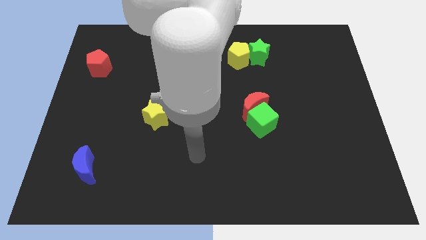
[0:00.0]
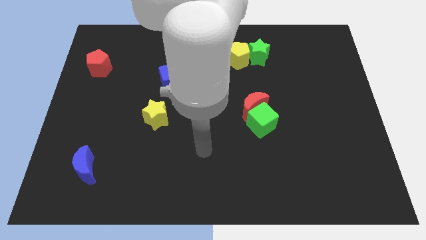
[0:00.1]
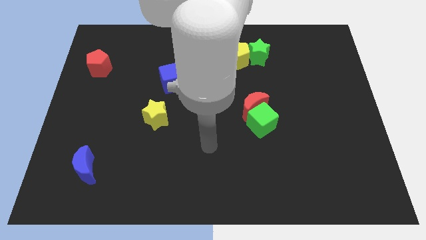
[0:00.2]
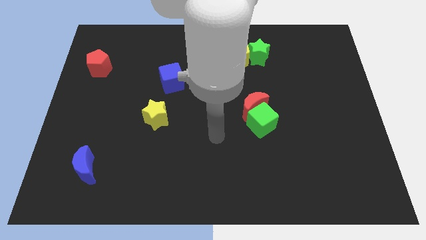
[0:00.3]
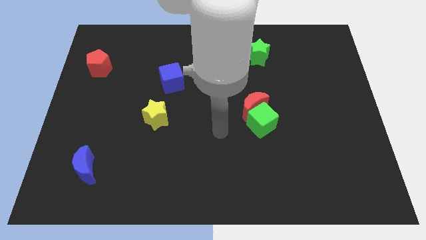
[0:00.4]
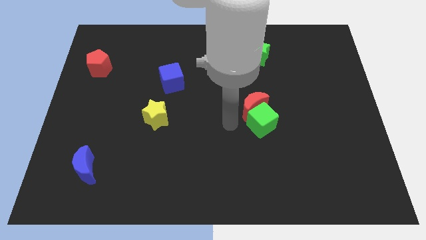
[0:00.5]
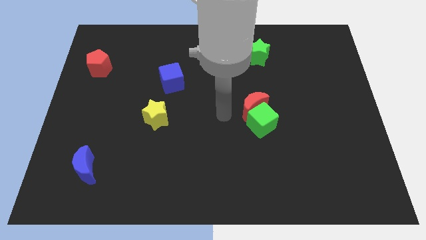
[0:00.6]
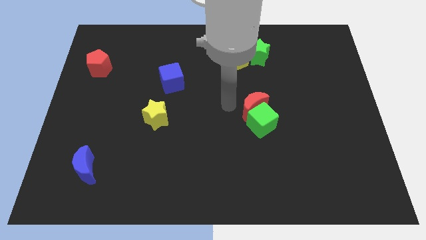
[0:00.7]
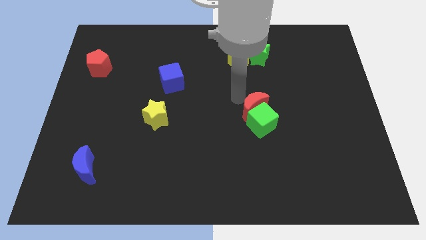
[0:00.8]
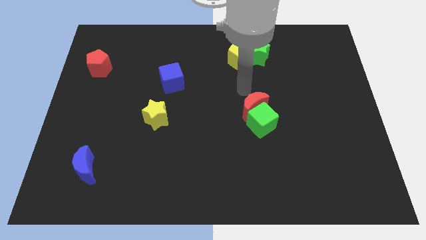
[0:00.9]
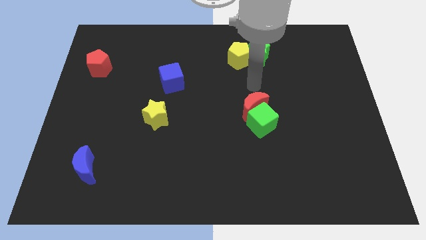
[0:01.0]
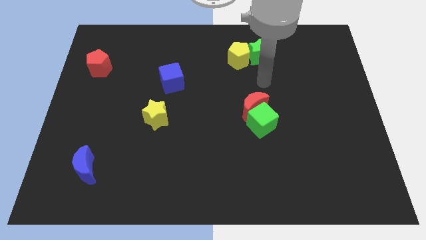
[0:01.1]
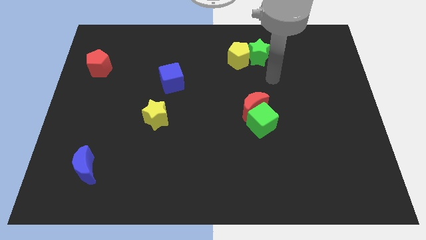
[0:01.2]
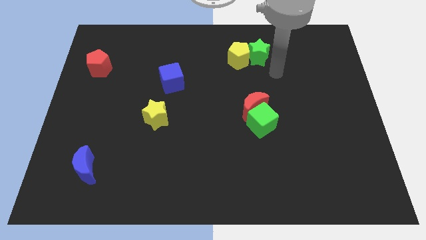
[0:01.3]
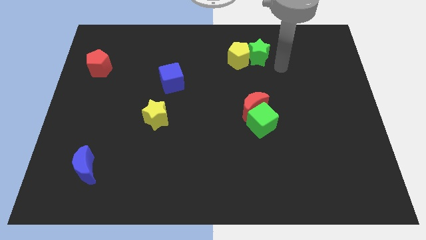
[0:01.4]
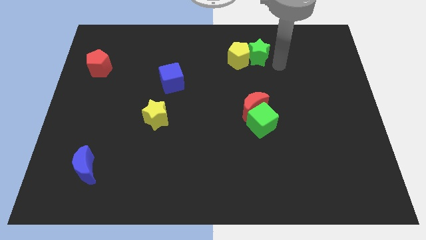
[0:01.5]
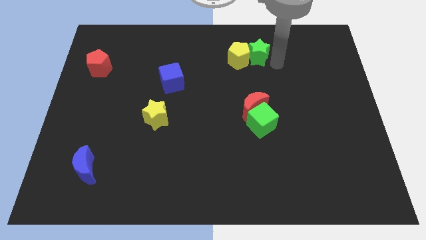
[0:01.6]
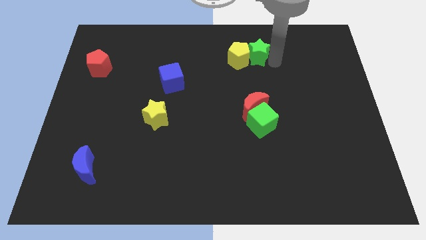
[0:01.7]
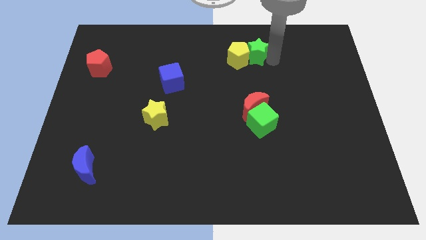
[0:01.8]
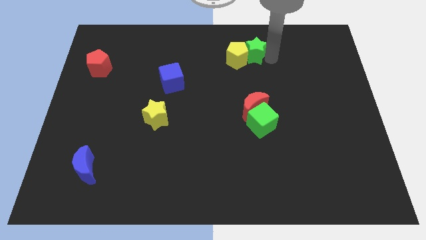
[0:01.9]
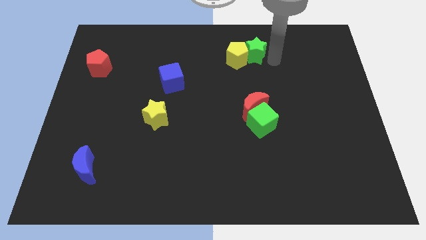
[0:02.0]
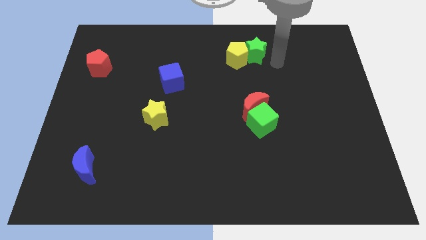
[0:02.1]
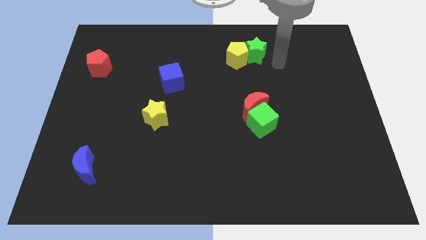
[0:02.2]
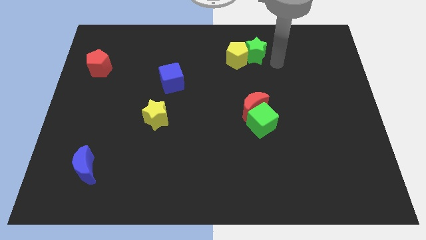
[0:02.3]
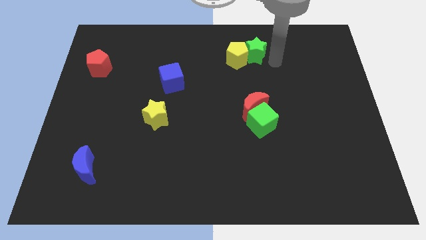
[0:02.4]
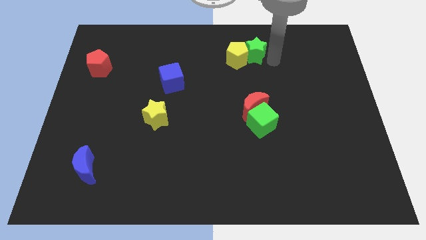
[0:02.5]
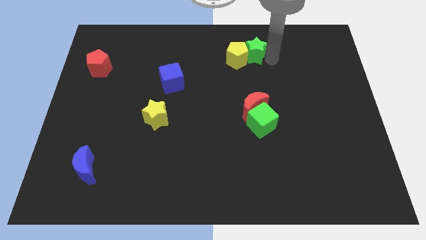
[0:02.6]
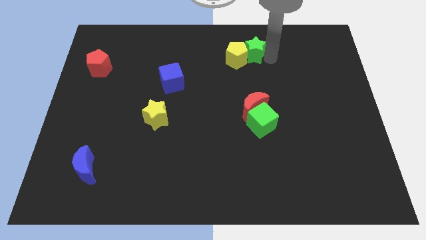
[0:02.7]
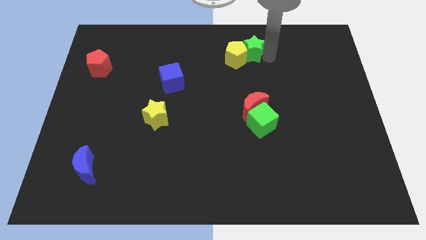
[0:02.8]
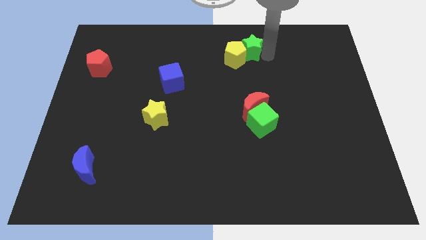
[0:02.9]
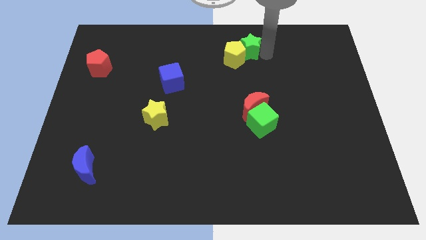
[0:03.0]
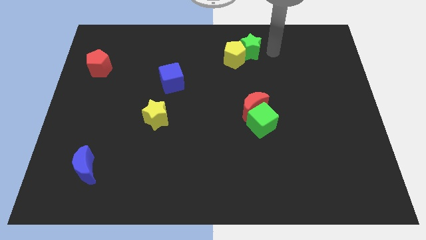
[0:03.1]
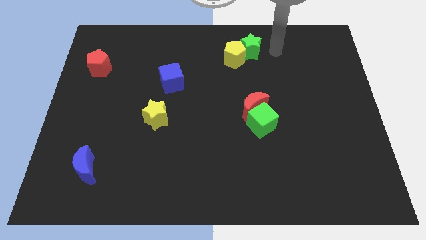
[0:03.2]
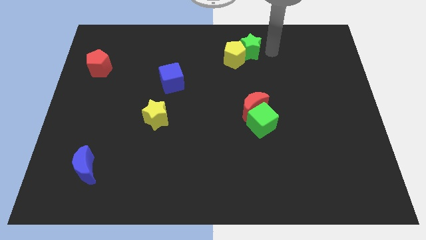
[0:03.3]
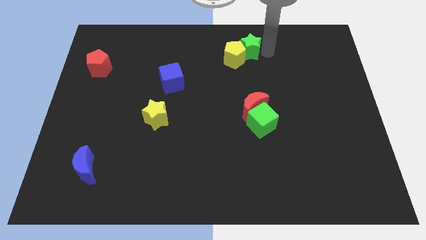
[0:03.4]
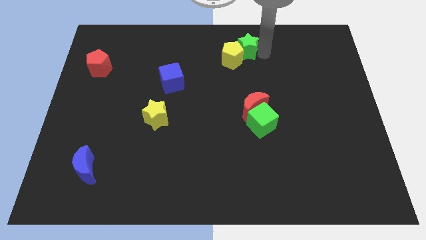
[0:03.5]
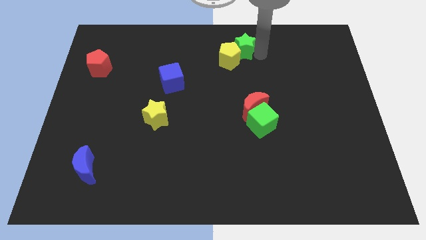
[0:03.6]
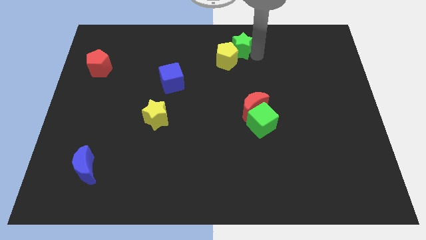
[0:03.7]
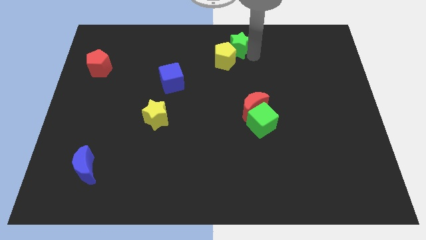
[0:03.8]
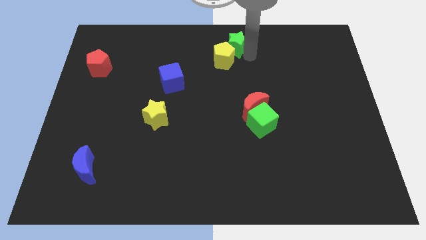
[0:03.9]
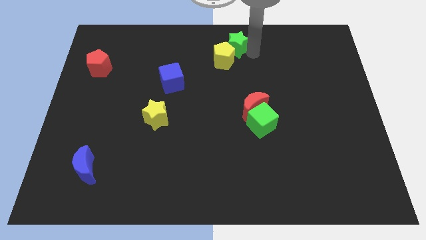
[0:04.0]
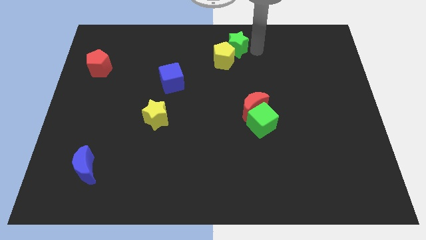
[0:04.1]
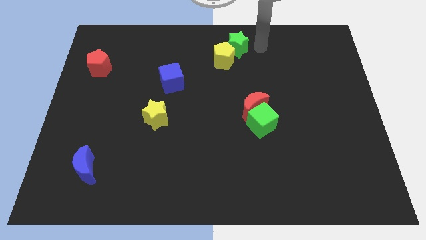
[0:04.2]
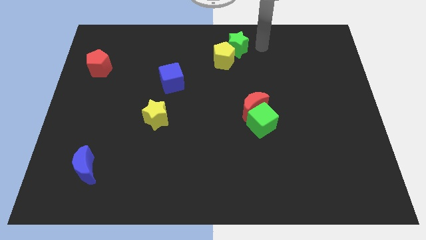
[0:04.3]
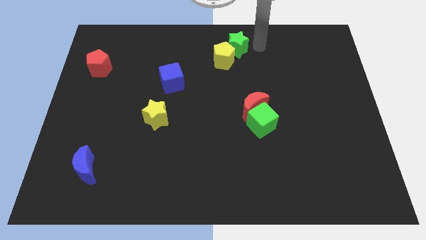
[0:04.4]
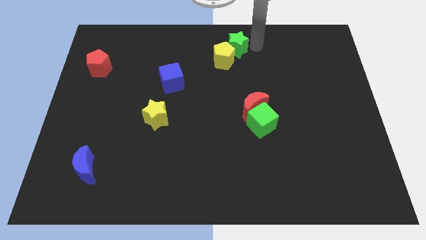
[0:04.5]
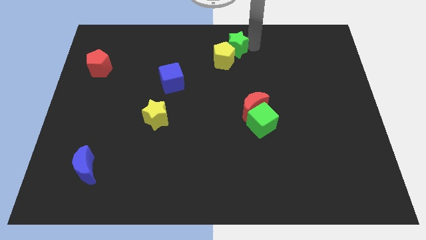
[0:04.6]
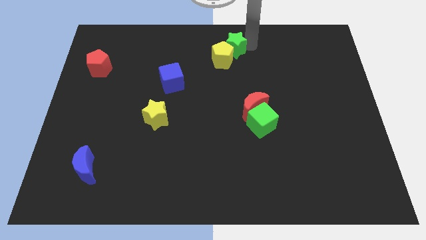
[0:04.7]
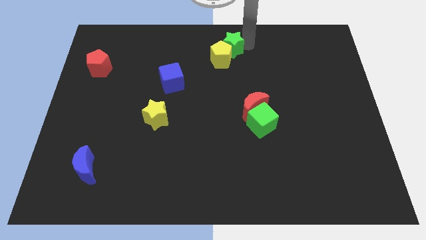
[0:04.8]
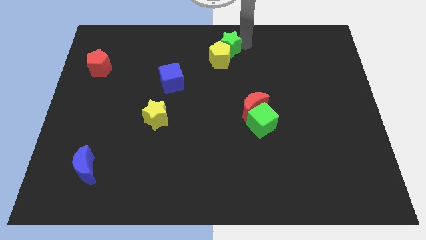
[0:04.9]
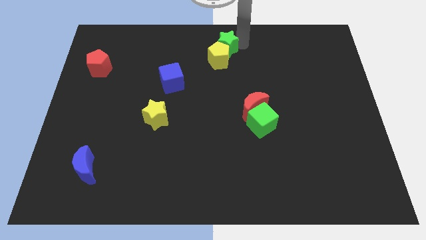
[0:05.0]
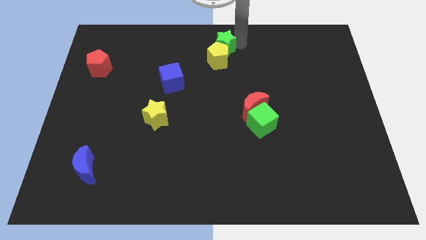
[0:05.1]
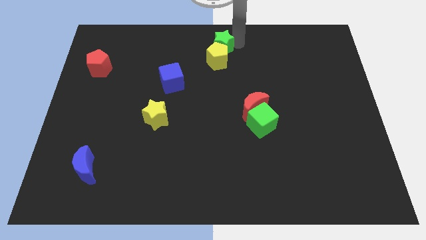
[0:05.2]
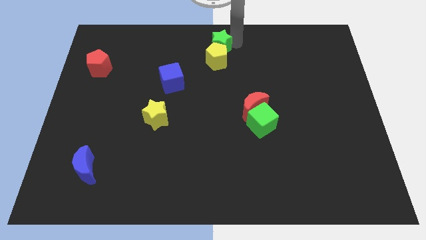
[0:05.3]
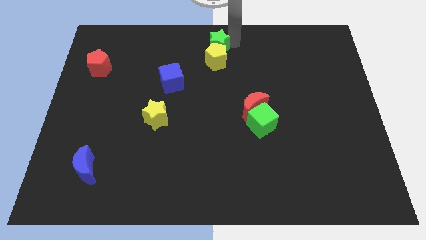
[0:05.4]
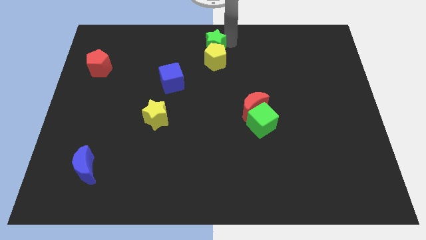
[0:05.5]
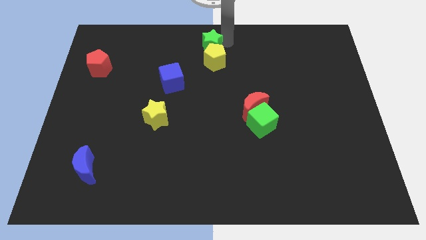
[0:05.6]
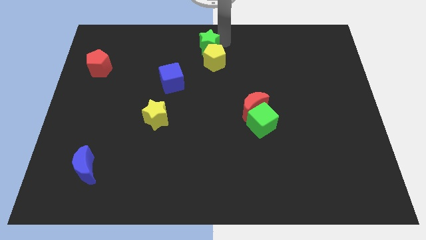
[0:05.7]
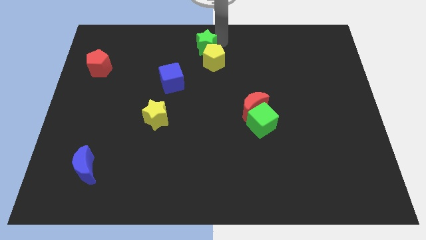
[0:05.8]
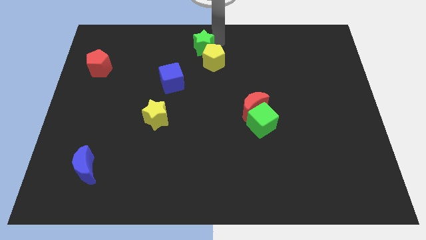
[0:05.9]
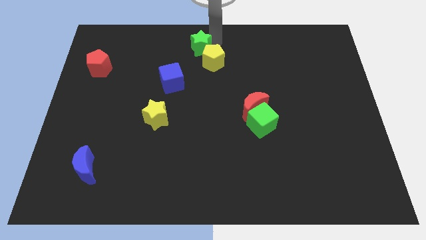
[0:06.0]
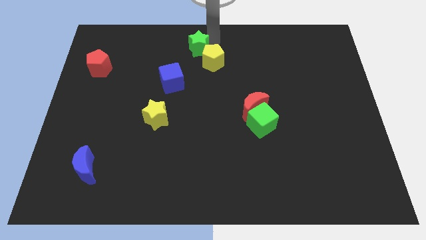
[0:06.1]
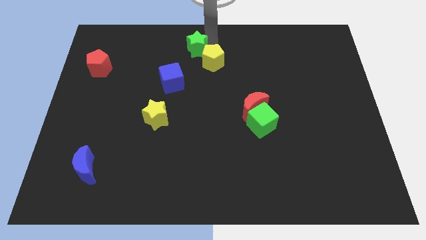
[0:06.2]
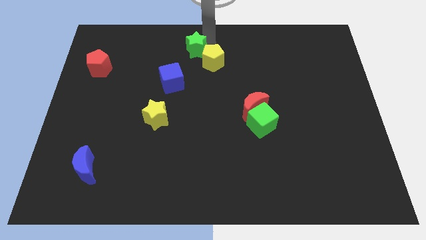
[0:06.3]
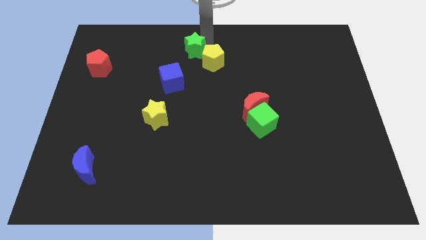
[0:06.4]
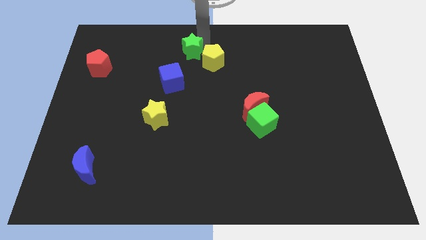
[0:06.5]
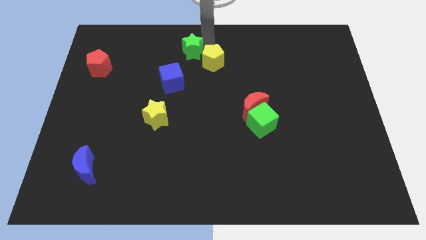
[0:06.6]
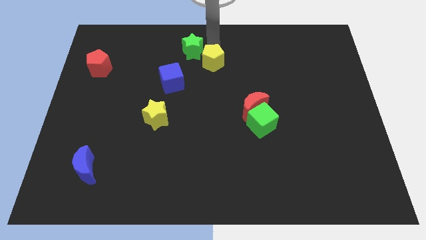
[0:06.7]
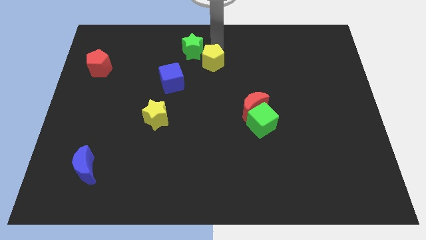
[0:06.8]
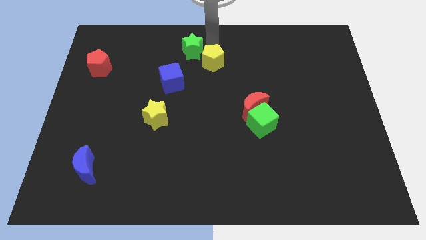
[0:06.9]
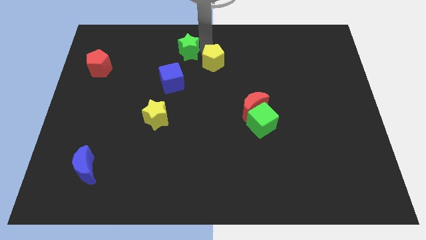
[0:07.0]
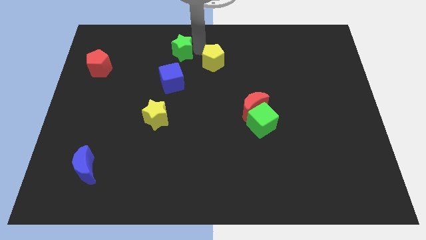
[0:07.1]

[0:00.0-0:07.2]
push the green star left

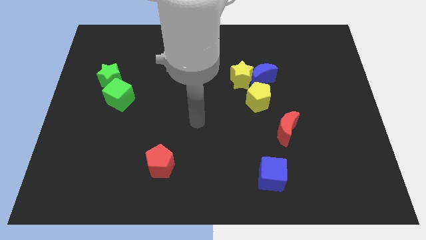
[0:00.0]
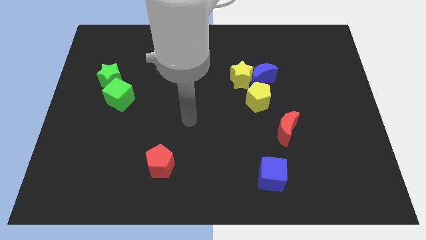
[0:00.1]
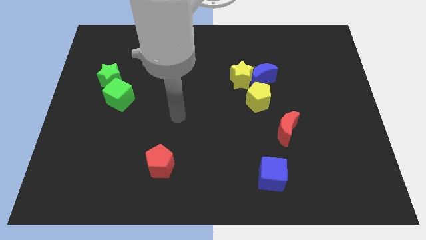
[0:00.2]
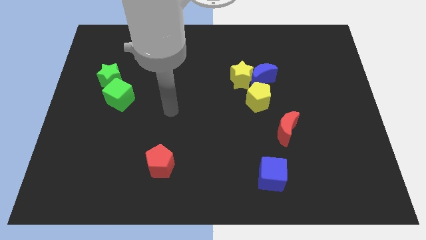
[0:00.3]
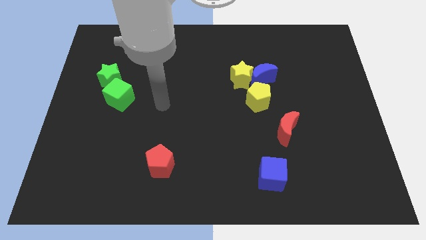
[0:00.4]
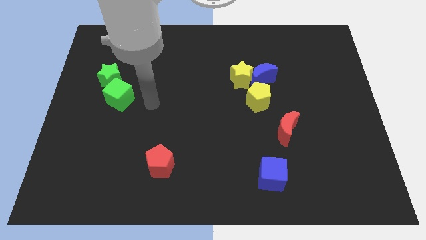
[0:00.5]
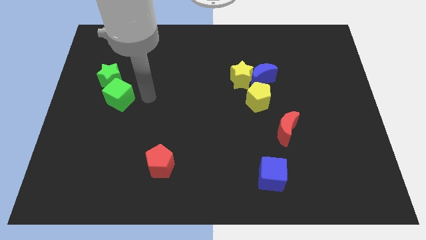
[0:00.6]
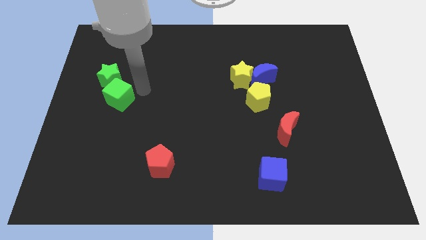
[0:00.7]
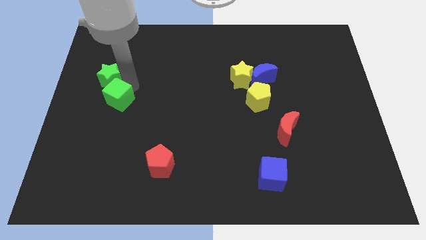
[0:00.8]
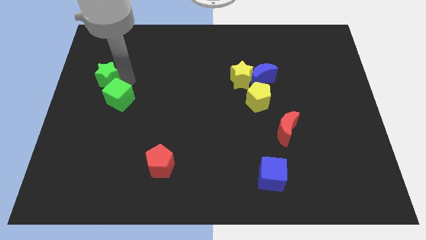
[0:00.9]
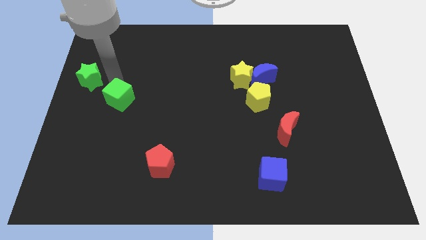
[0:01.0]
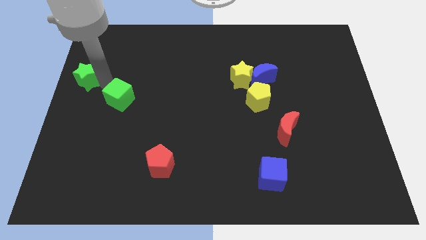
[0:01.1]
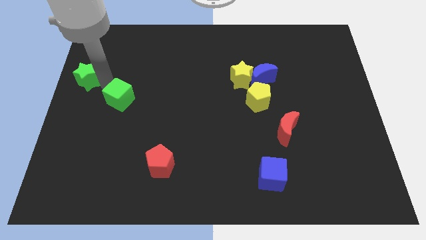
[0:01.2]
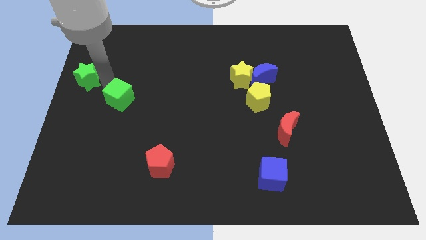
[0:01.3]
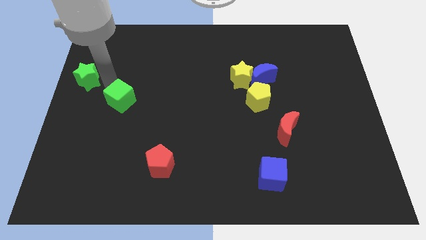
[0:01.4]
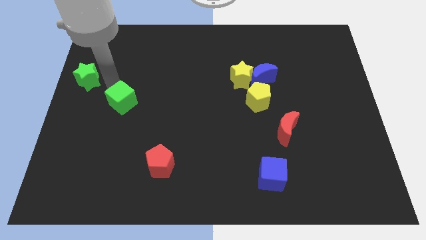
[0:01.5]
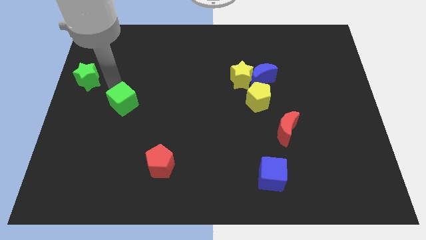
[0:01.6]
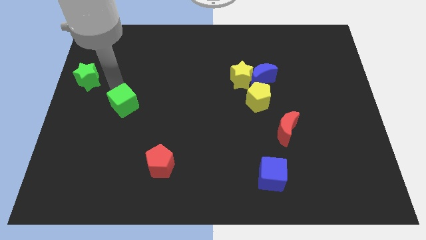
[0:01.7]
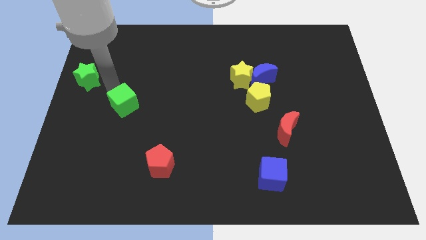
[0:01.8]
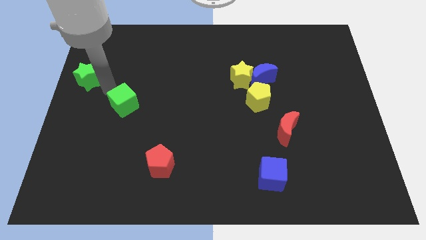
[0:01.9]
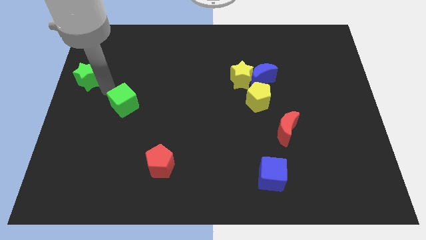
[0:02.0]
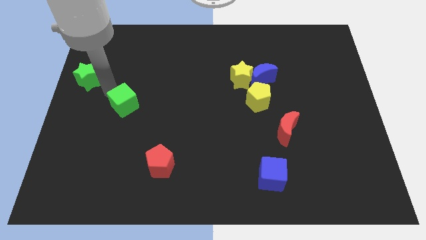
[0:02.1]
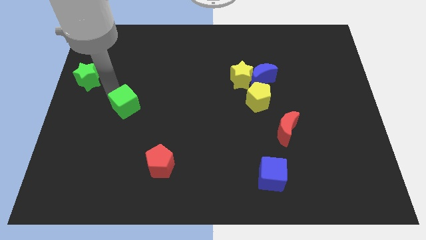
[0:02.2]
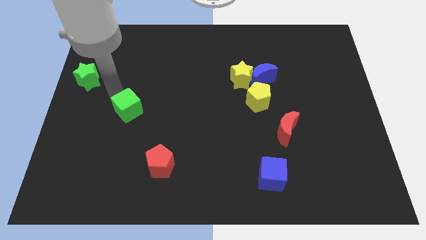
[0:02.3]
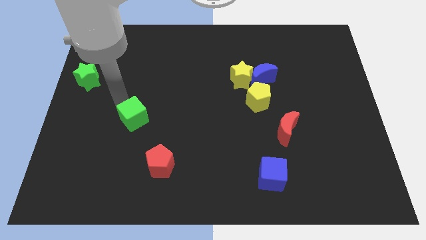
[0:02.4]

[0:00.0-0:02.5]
slightly slide the green cube diagonally downwards and right
